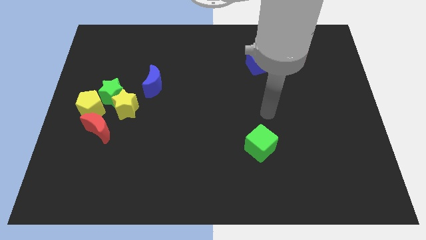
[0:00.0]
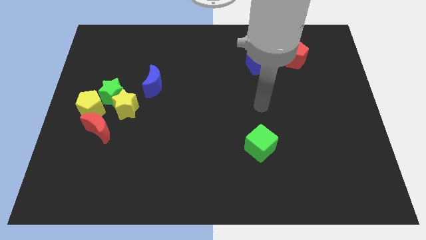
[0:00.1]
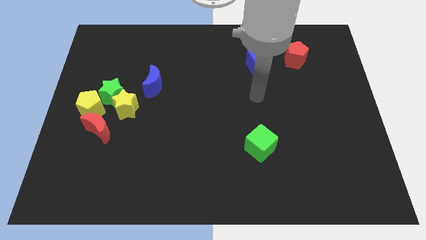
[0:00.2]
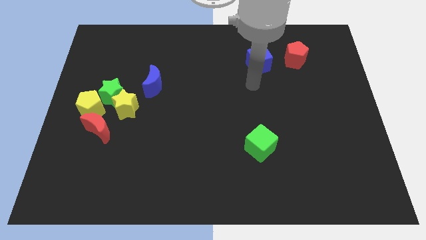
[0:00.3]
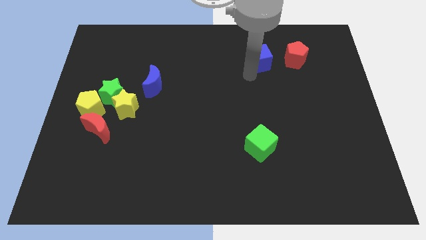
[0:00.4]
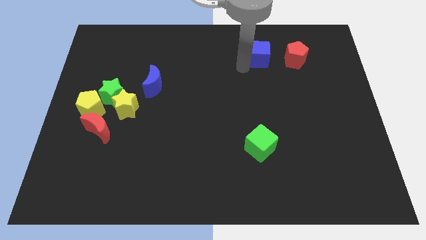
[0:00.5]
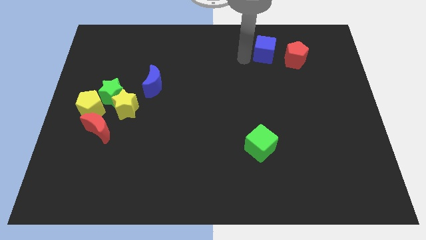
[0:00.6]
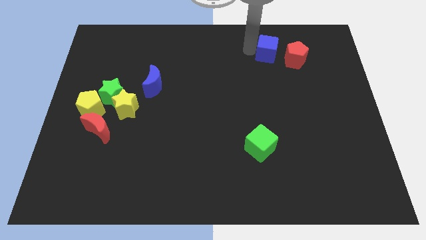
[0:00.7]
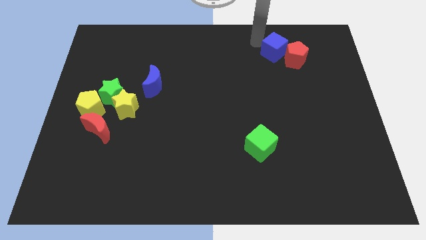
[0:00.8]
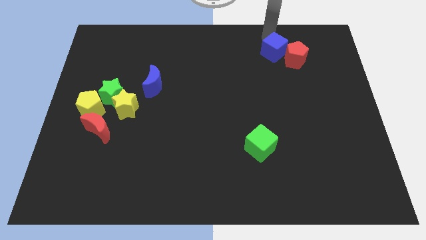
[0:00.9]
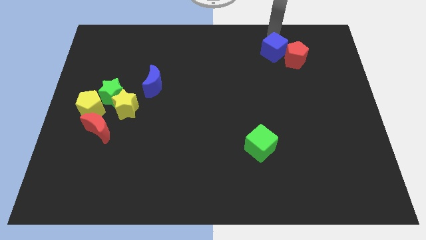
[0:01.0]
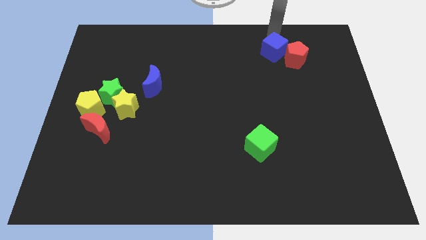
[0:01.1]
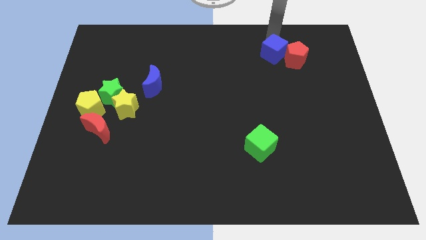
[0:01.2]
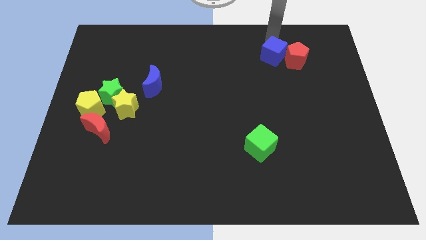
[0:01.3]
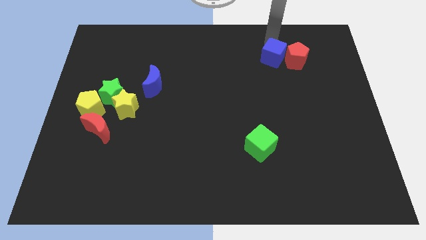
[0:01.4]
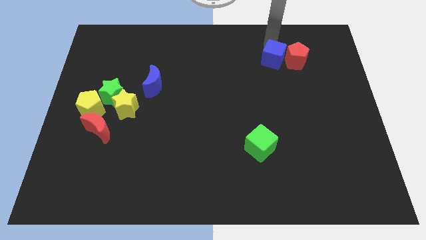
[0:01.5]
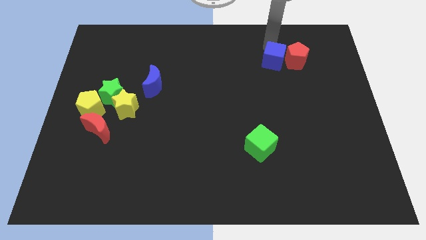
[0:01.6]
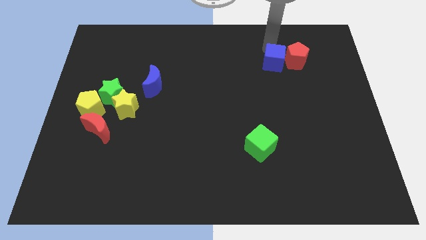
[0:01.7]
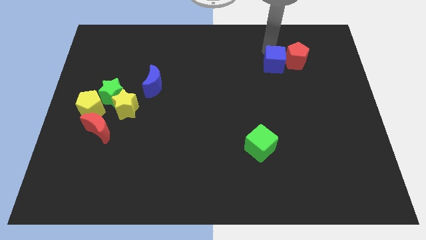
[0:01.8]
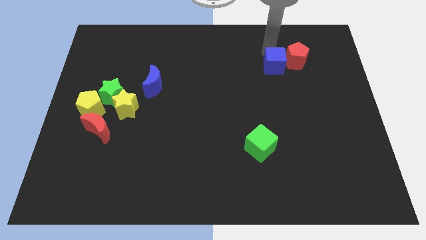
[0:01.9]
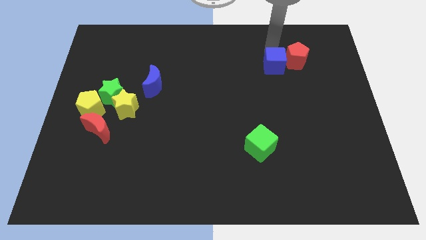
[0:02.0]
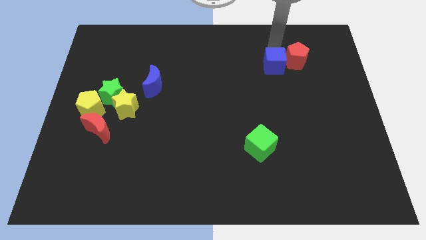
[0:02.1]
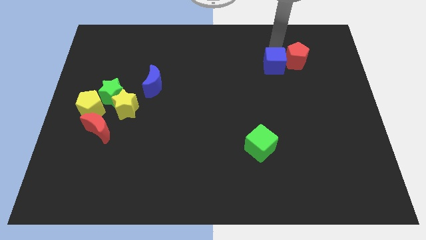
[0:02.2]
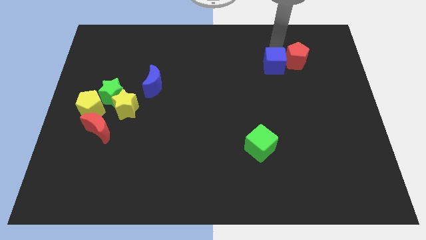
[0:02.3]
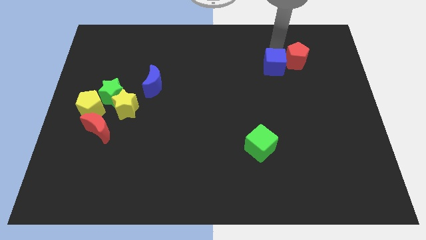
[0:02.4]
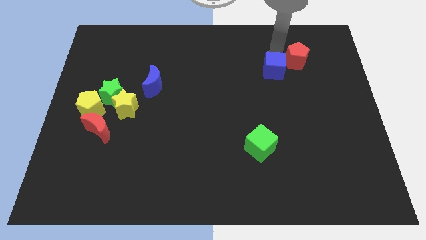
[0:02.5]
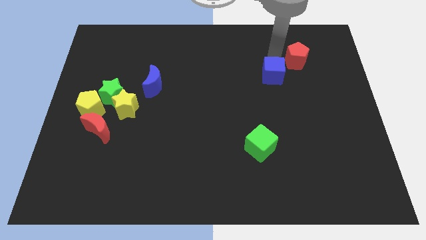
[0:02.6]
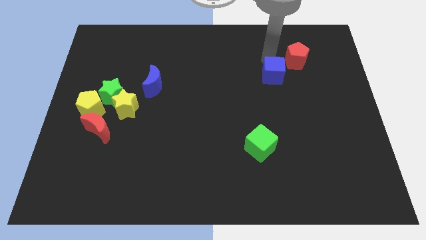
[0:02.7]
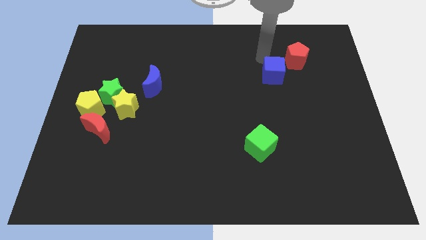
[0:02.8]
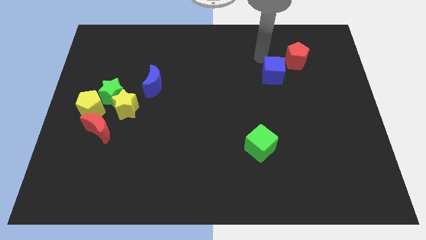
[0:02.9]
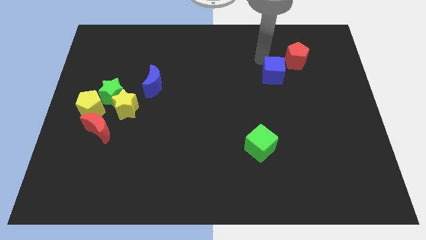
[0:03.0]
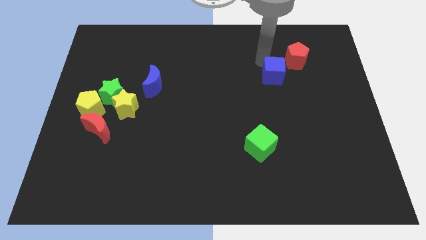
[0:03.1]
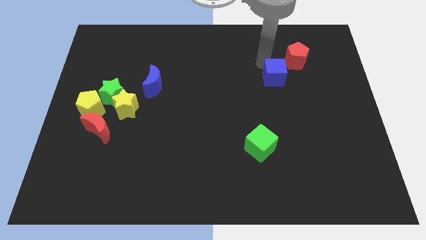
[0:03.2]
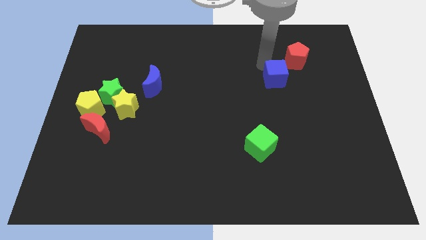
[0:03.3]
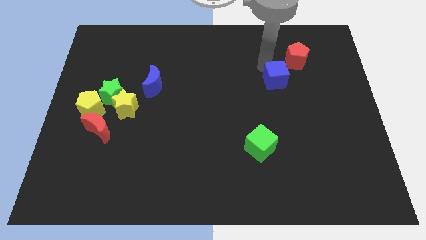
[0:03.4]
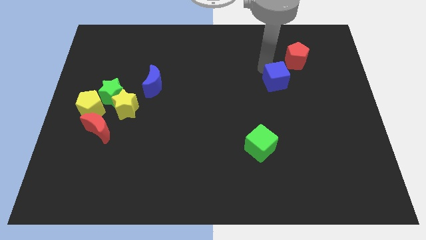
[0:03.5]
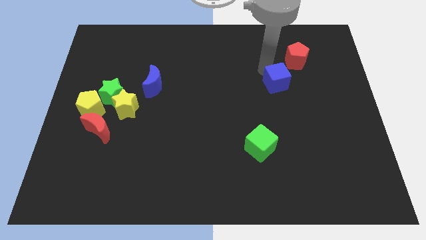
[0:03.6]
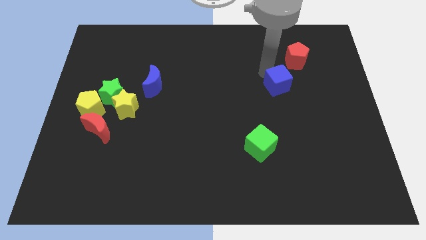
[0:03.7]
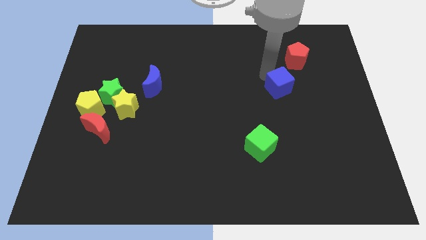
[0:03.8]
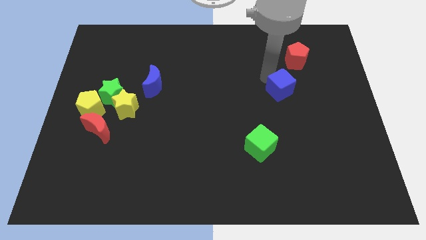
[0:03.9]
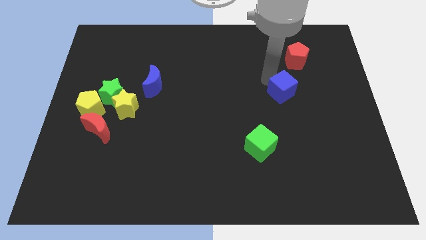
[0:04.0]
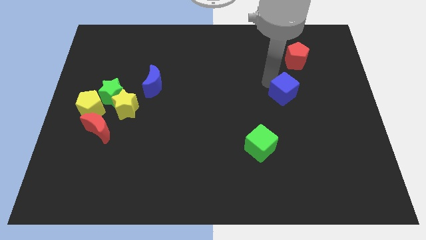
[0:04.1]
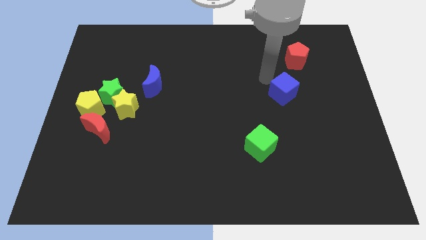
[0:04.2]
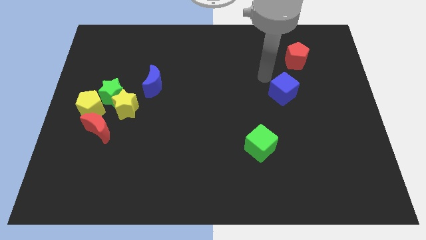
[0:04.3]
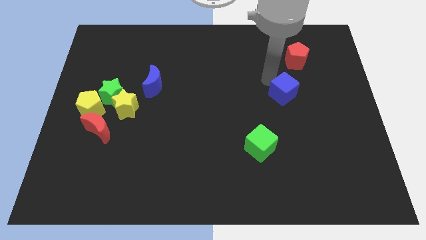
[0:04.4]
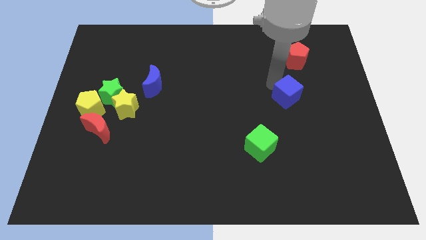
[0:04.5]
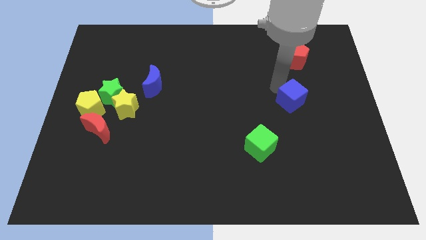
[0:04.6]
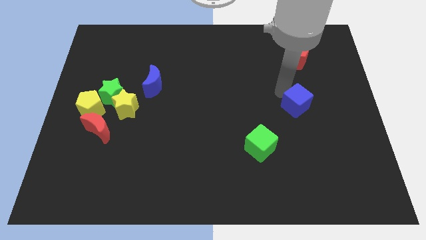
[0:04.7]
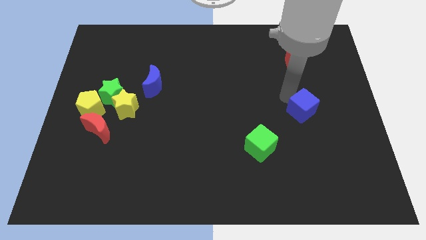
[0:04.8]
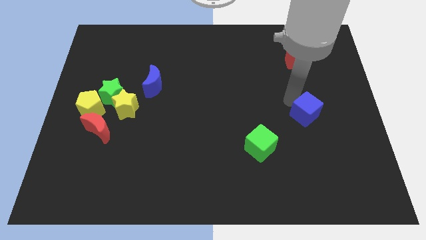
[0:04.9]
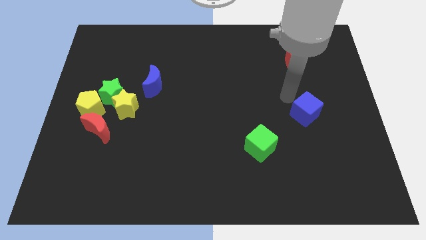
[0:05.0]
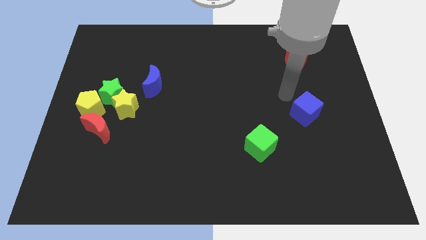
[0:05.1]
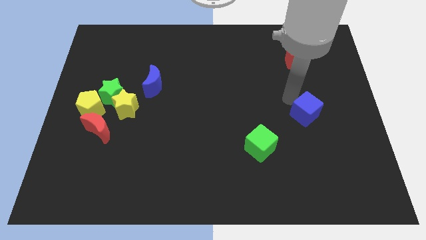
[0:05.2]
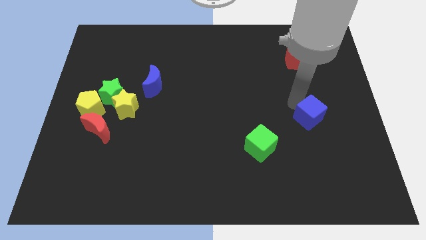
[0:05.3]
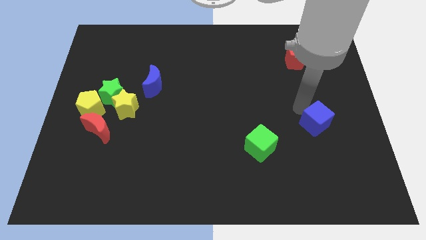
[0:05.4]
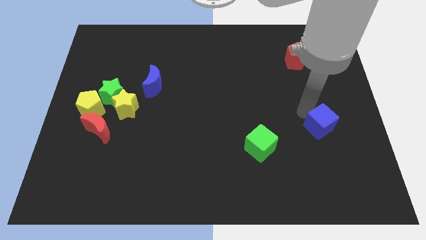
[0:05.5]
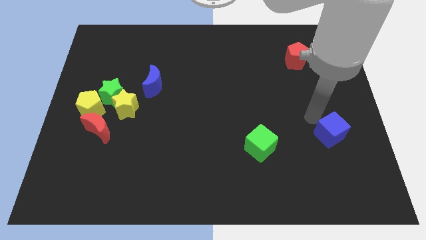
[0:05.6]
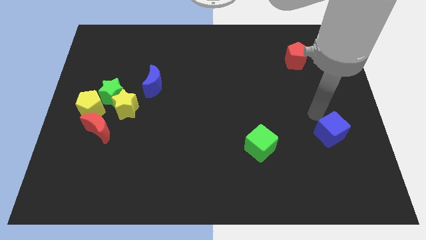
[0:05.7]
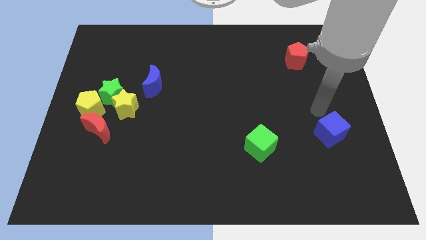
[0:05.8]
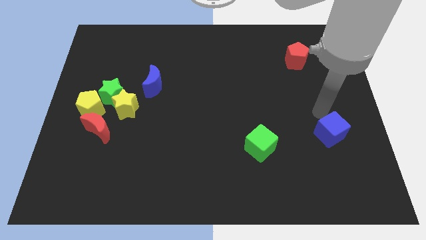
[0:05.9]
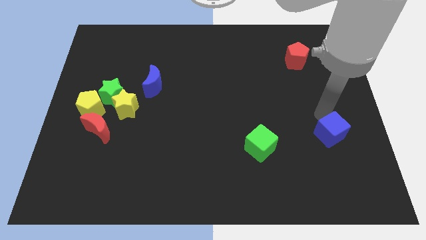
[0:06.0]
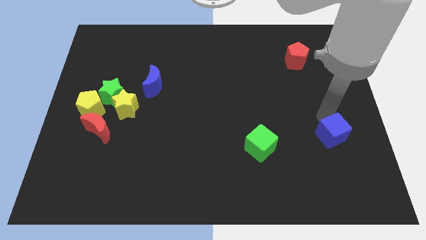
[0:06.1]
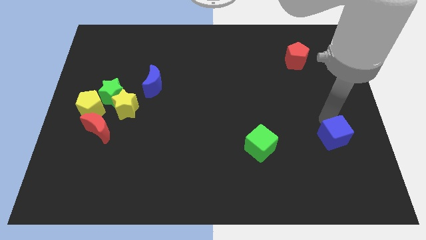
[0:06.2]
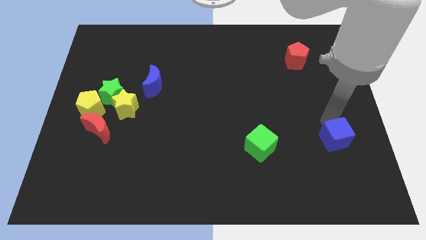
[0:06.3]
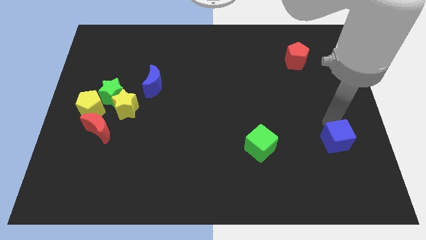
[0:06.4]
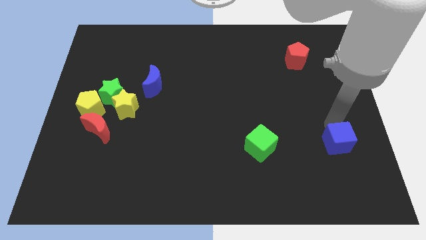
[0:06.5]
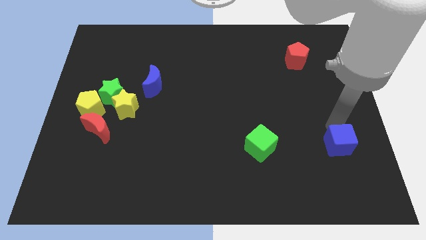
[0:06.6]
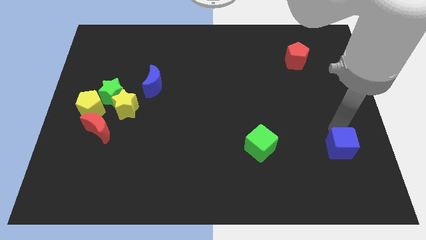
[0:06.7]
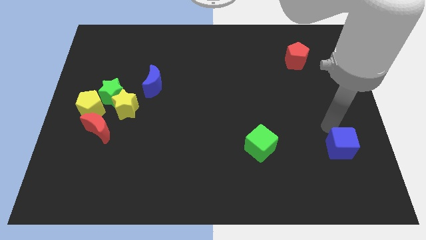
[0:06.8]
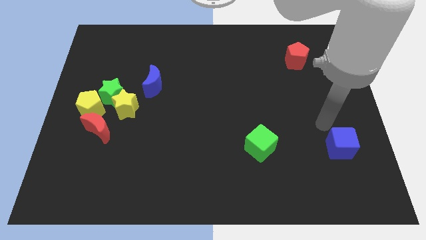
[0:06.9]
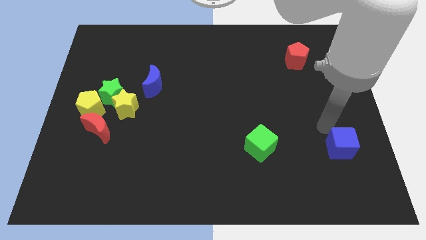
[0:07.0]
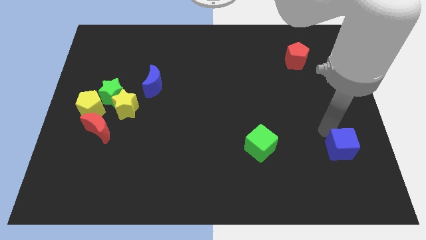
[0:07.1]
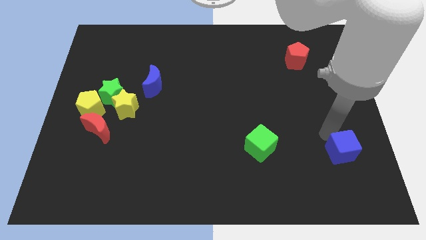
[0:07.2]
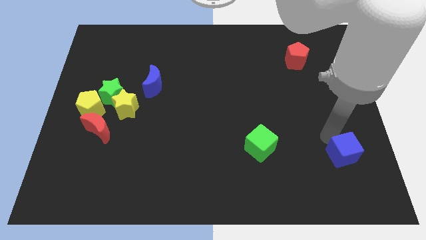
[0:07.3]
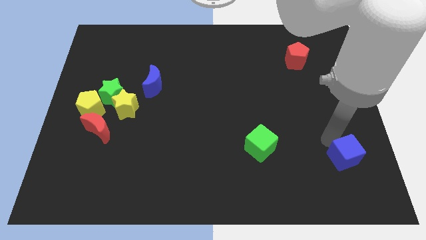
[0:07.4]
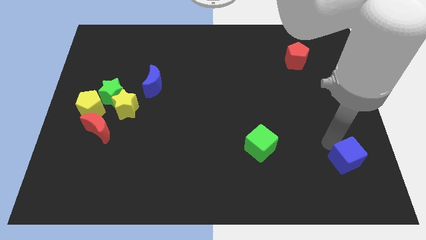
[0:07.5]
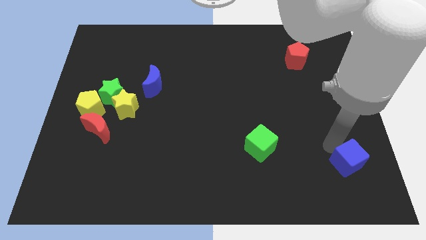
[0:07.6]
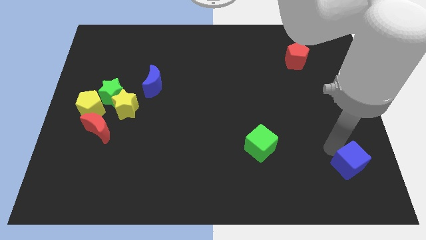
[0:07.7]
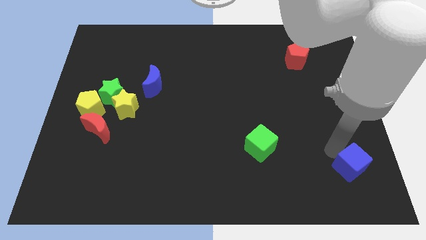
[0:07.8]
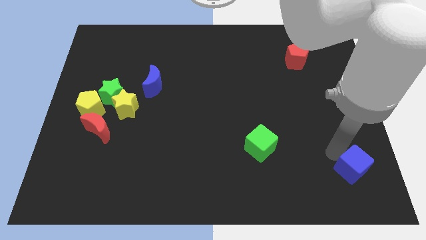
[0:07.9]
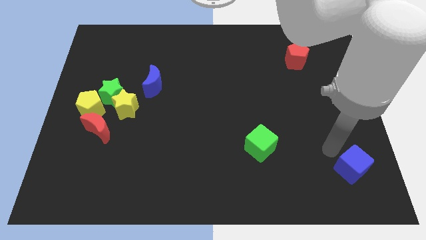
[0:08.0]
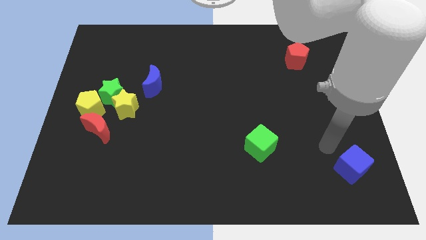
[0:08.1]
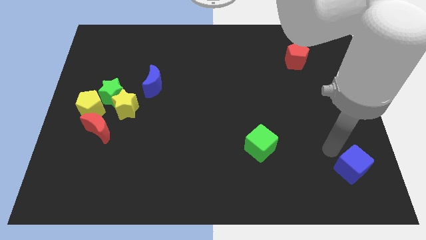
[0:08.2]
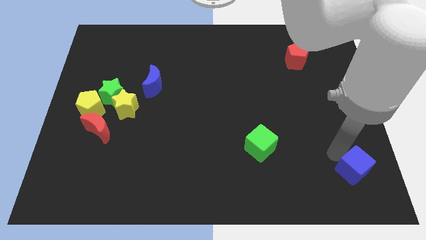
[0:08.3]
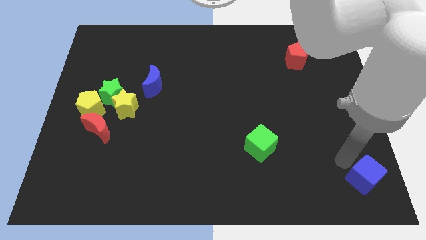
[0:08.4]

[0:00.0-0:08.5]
slide the blue cube to the lower right corner
